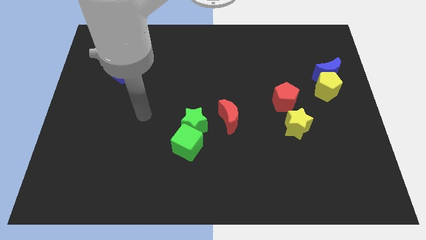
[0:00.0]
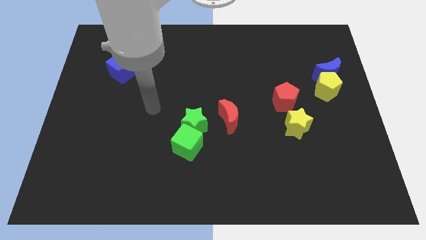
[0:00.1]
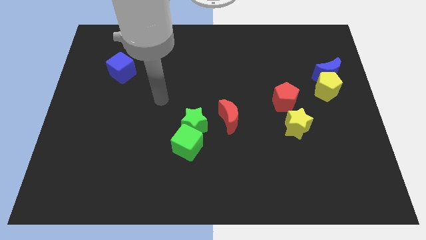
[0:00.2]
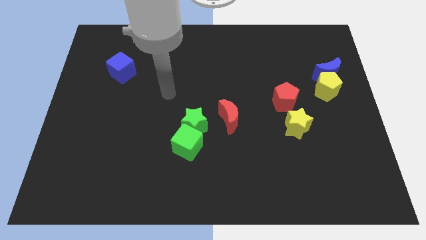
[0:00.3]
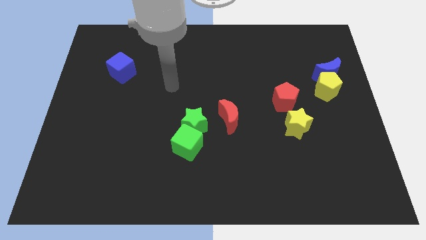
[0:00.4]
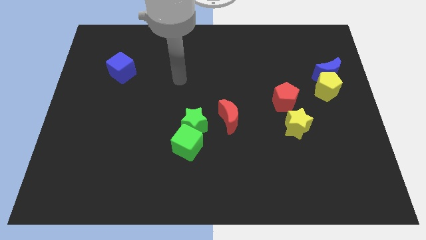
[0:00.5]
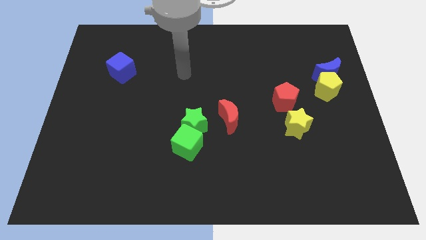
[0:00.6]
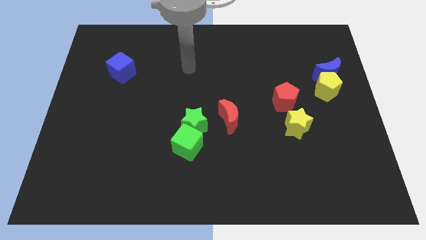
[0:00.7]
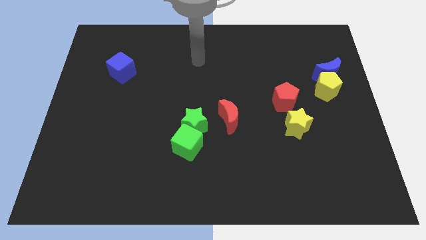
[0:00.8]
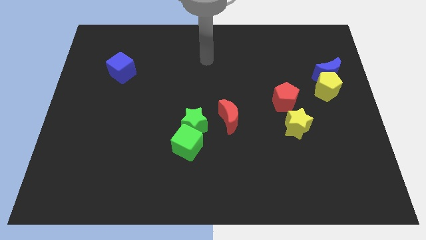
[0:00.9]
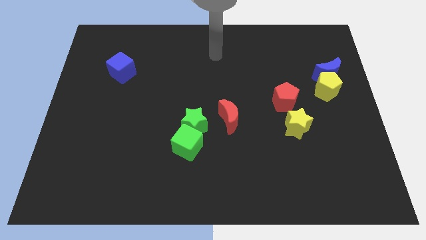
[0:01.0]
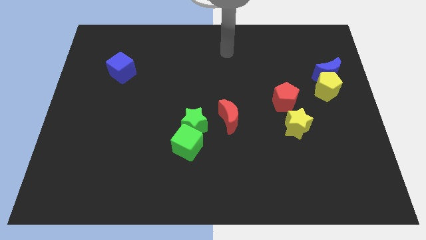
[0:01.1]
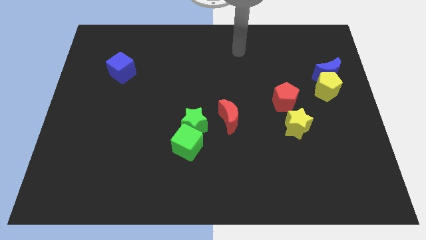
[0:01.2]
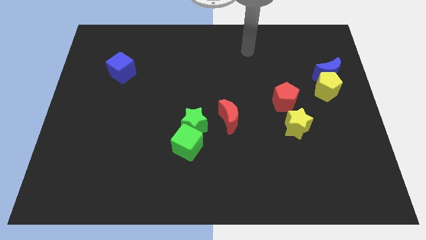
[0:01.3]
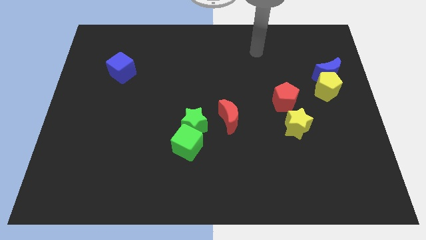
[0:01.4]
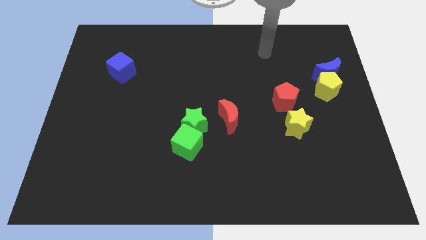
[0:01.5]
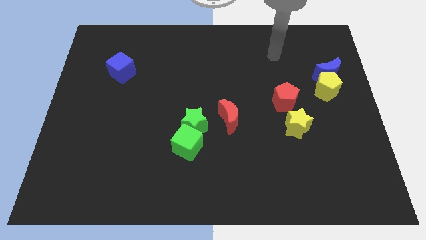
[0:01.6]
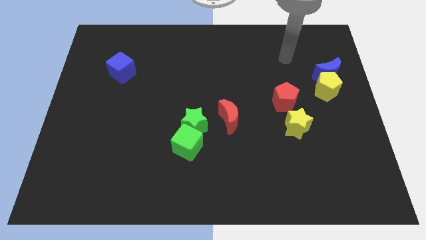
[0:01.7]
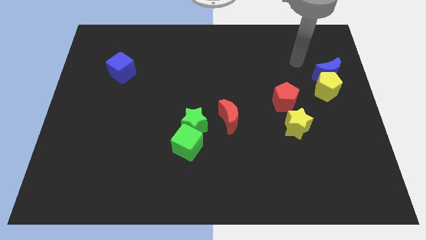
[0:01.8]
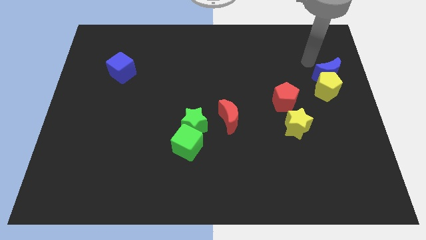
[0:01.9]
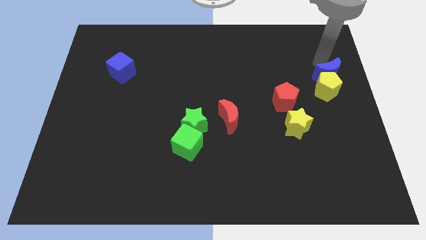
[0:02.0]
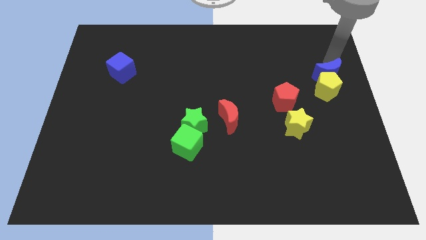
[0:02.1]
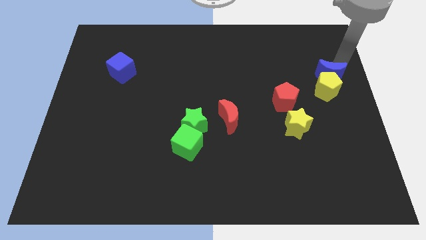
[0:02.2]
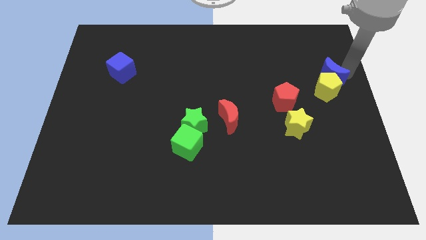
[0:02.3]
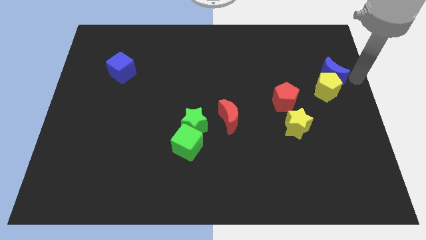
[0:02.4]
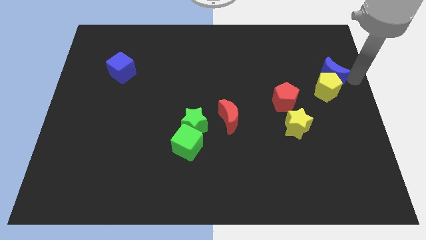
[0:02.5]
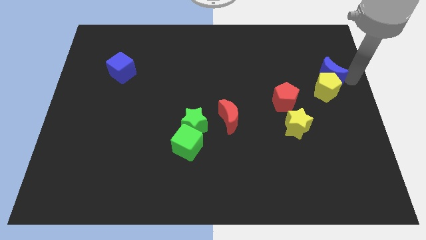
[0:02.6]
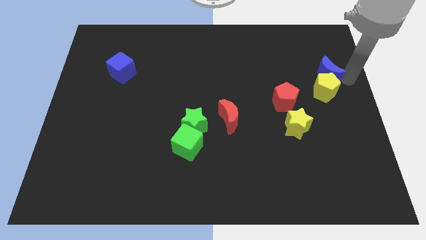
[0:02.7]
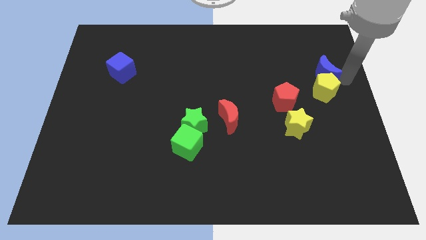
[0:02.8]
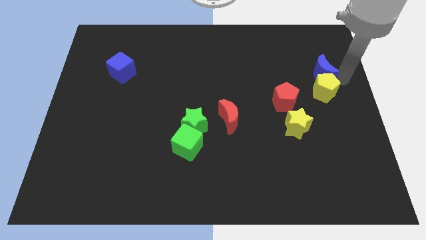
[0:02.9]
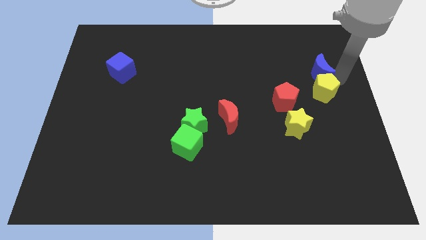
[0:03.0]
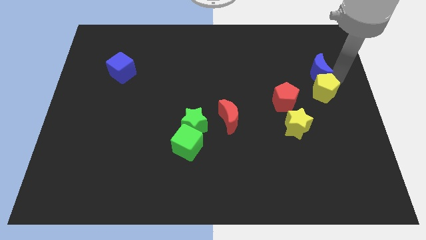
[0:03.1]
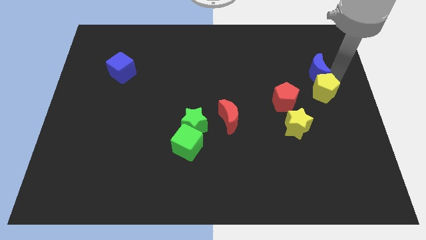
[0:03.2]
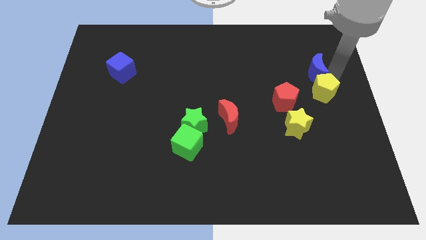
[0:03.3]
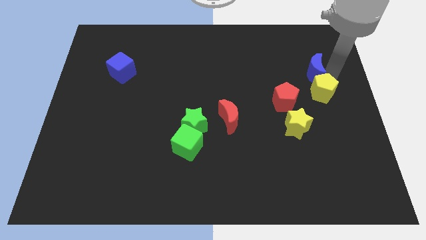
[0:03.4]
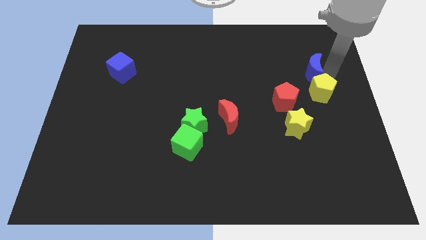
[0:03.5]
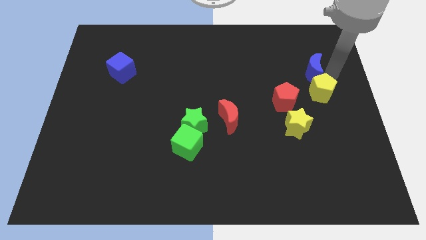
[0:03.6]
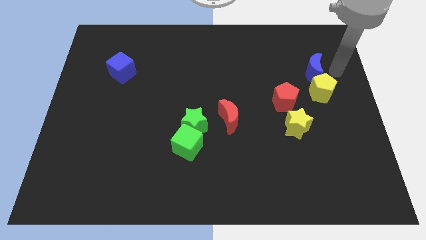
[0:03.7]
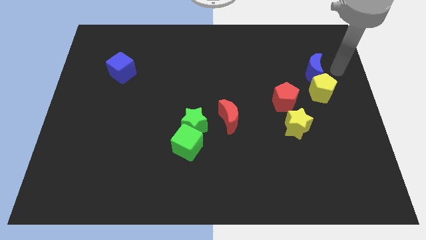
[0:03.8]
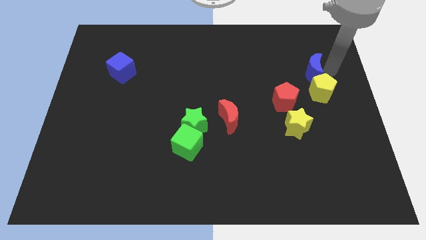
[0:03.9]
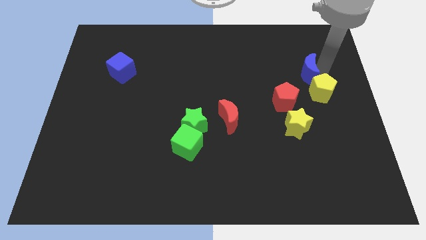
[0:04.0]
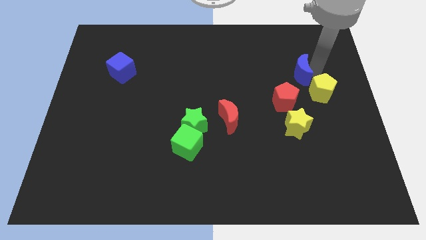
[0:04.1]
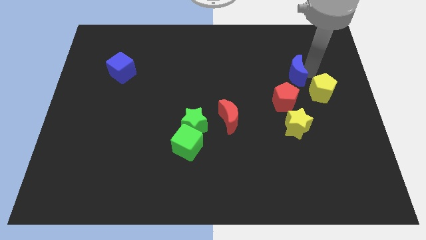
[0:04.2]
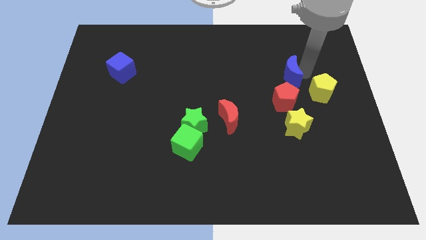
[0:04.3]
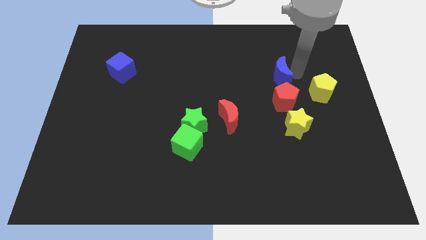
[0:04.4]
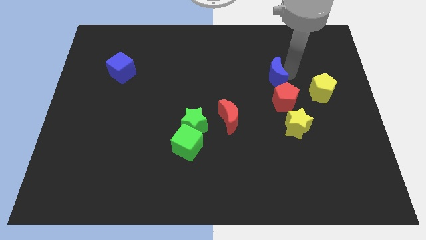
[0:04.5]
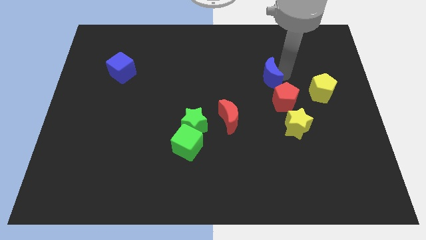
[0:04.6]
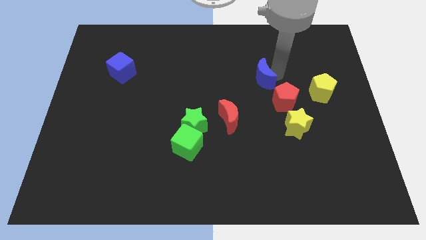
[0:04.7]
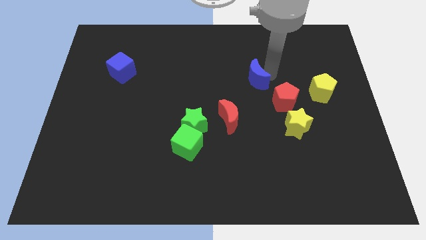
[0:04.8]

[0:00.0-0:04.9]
slide the blue moon to the center
